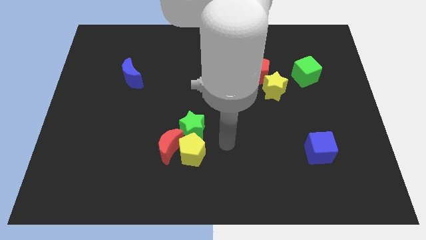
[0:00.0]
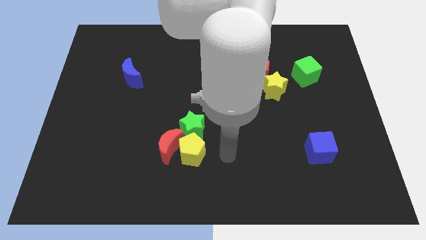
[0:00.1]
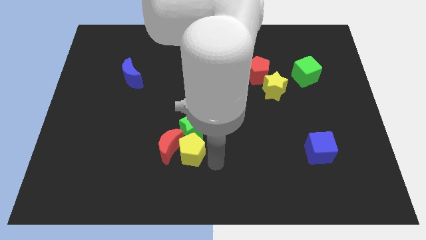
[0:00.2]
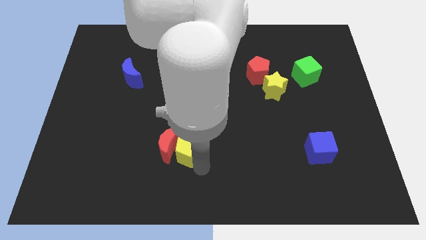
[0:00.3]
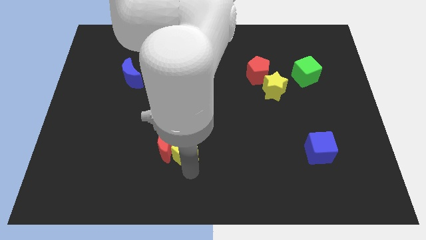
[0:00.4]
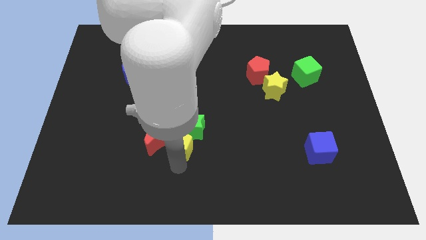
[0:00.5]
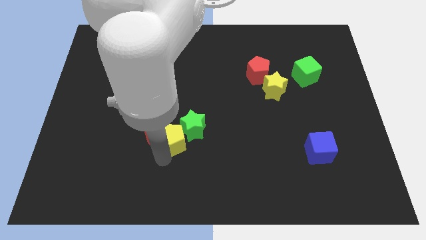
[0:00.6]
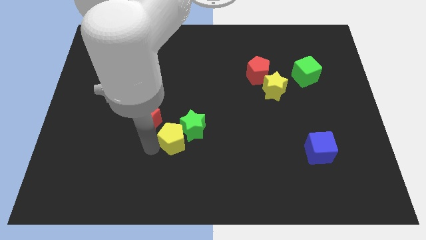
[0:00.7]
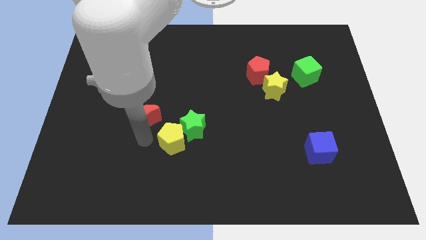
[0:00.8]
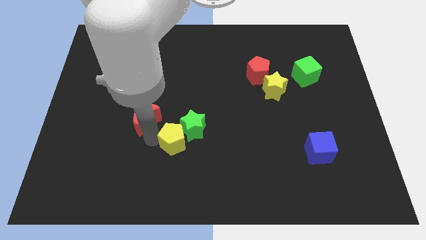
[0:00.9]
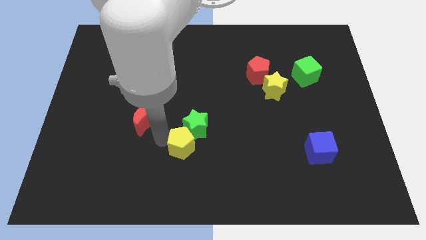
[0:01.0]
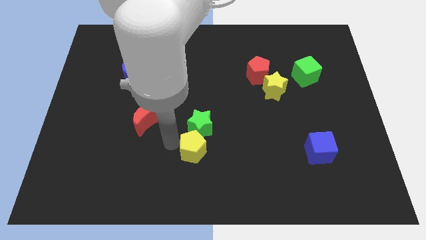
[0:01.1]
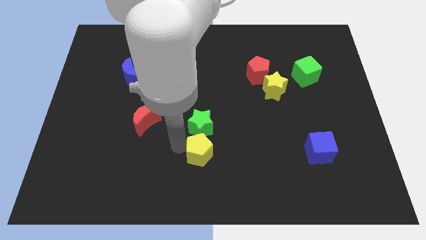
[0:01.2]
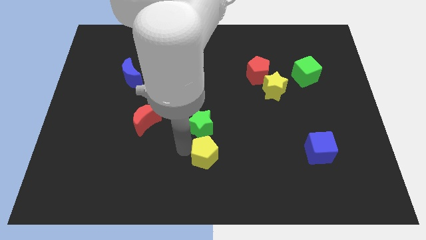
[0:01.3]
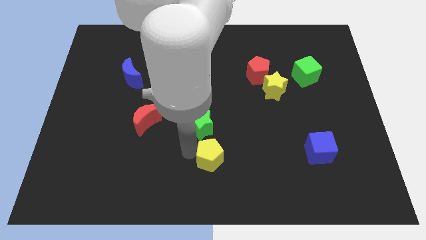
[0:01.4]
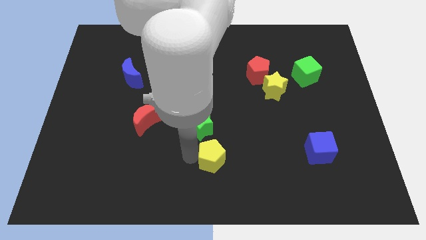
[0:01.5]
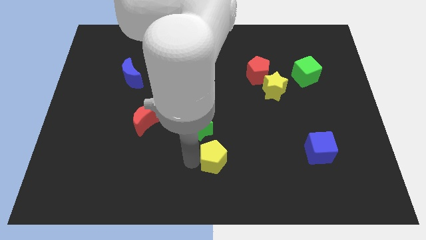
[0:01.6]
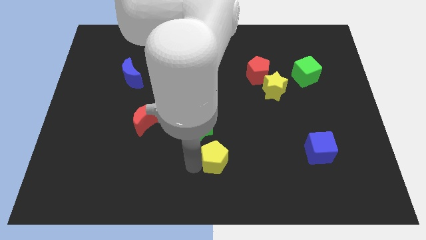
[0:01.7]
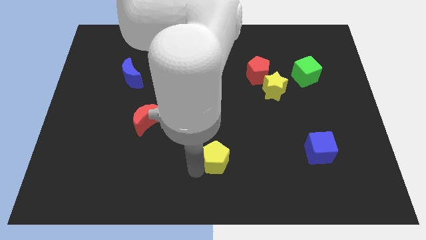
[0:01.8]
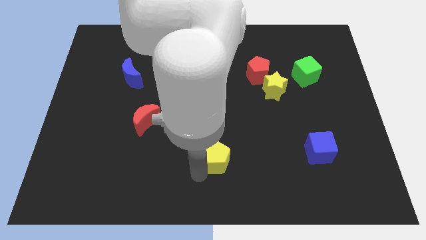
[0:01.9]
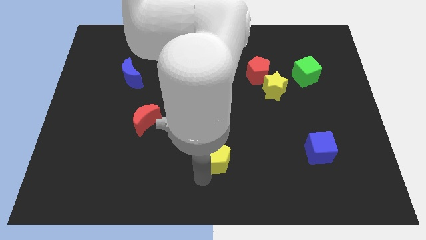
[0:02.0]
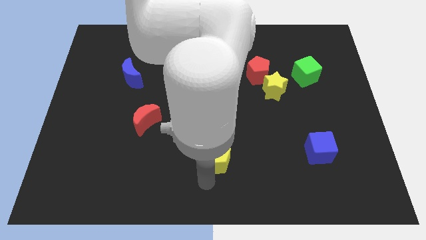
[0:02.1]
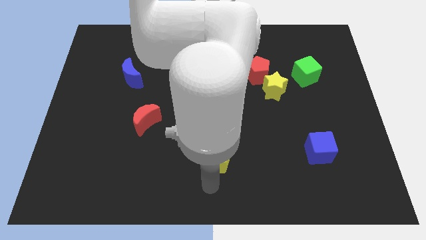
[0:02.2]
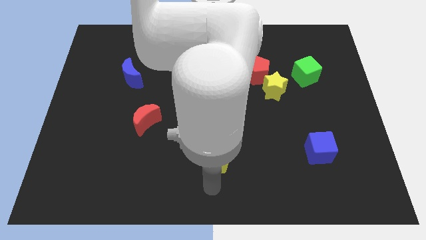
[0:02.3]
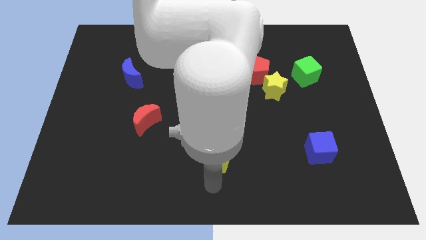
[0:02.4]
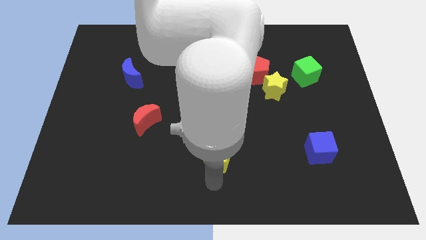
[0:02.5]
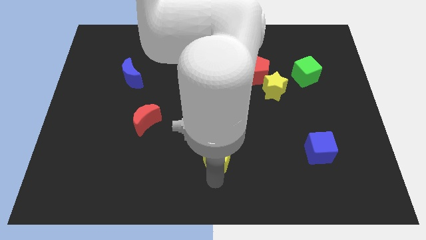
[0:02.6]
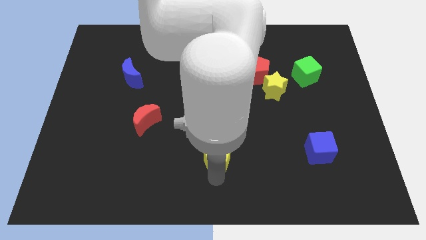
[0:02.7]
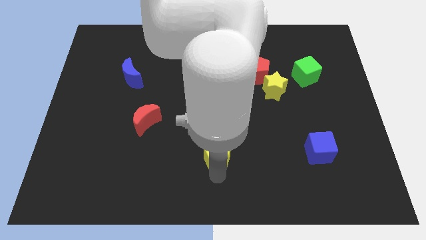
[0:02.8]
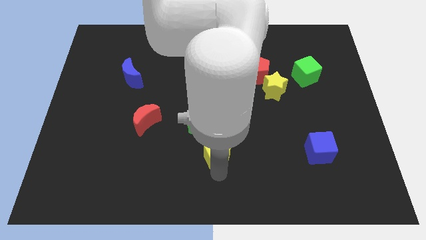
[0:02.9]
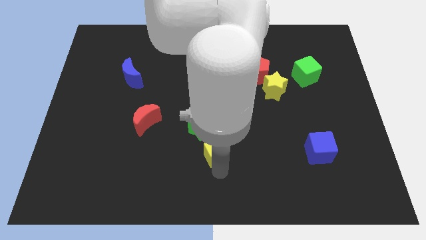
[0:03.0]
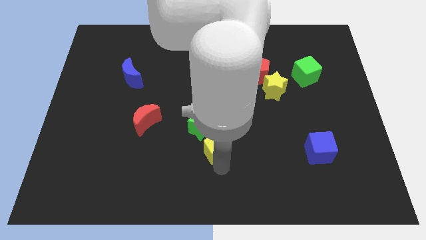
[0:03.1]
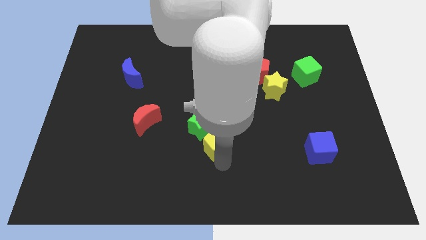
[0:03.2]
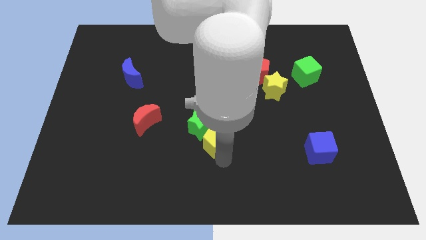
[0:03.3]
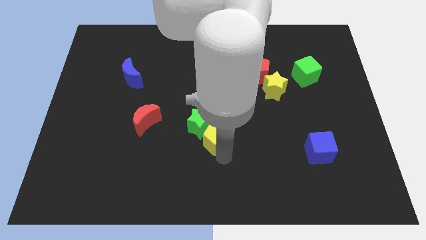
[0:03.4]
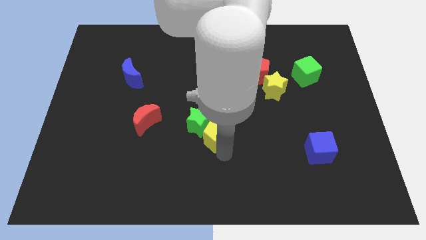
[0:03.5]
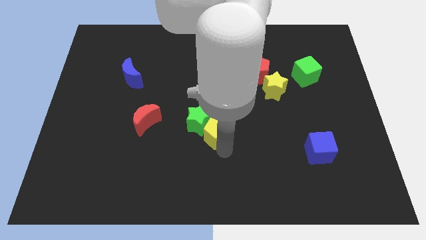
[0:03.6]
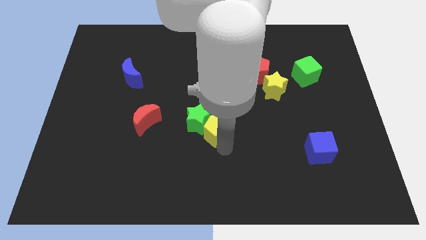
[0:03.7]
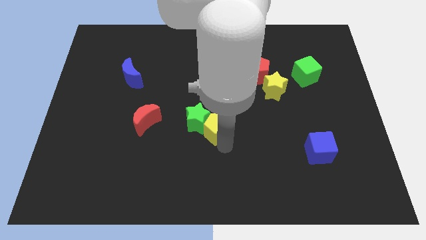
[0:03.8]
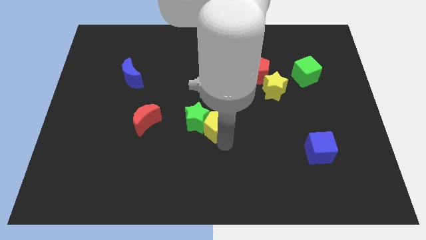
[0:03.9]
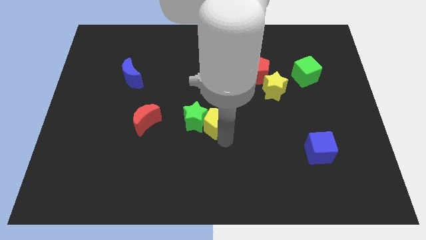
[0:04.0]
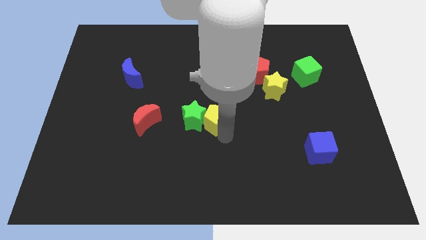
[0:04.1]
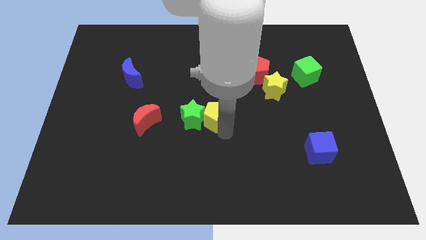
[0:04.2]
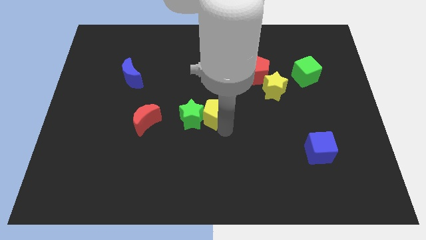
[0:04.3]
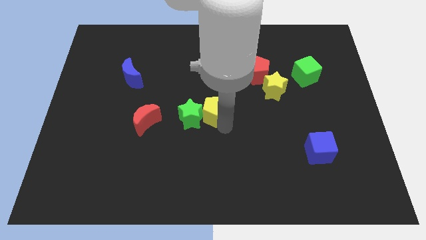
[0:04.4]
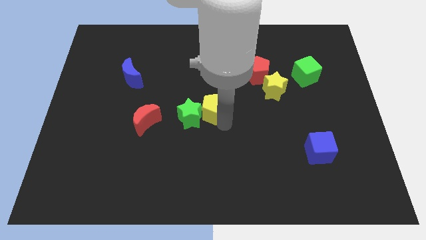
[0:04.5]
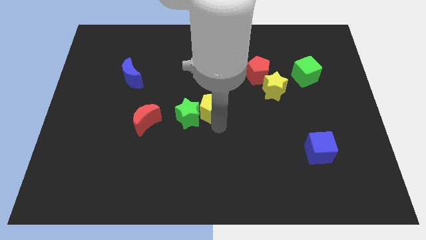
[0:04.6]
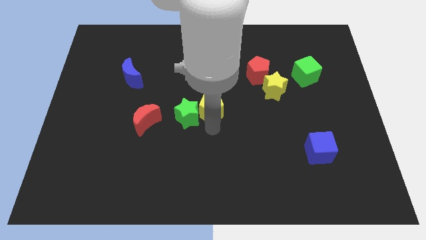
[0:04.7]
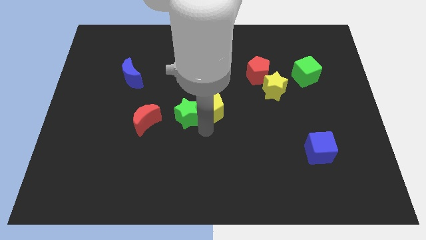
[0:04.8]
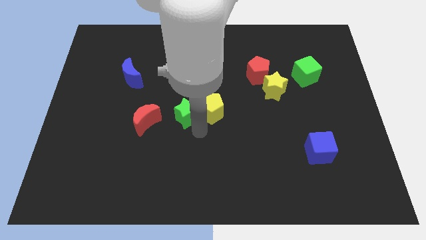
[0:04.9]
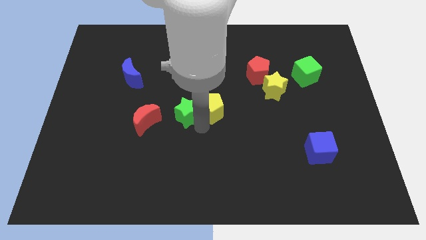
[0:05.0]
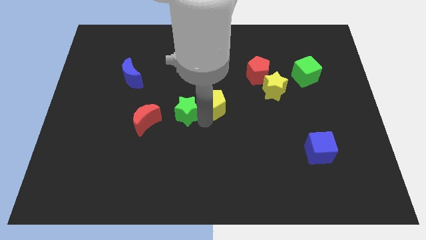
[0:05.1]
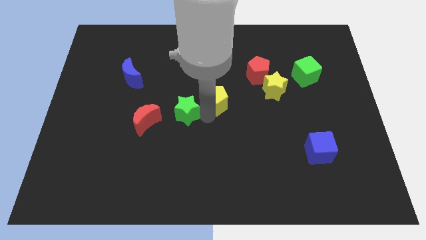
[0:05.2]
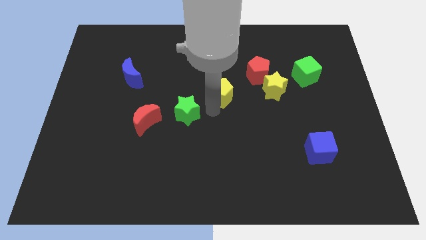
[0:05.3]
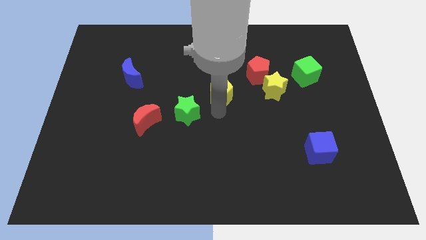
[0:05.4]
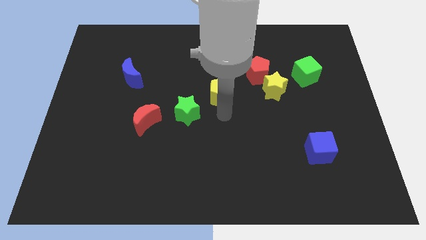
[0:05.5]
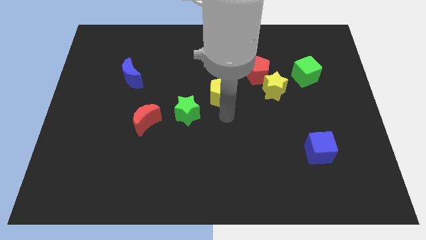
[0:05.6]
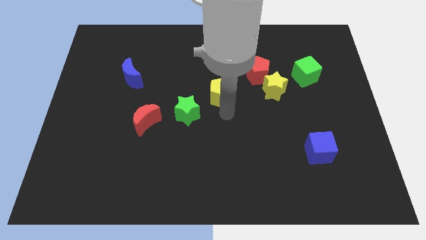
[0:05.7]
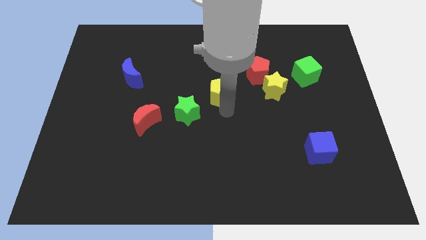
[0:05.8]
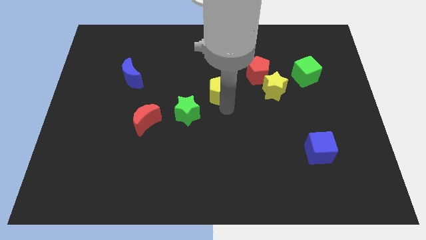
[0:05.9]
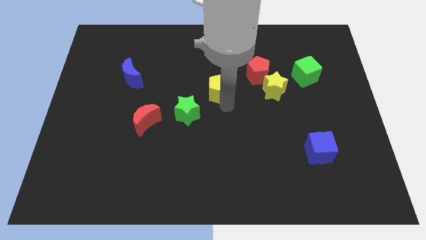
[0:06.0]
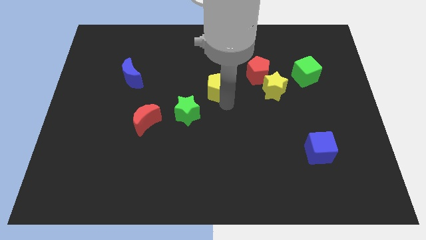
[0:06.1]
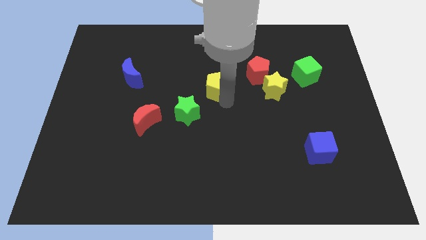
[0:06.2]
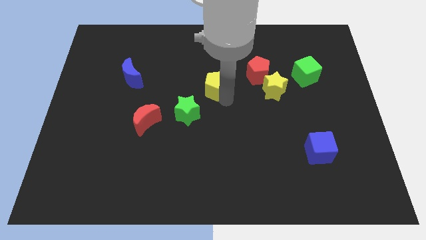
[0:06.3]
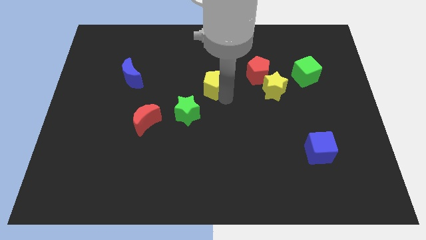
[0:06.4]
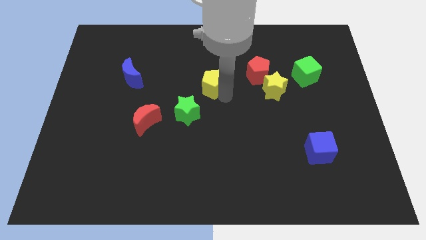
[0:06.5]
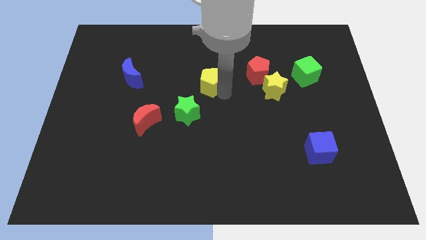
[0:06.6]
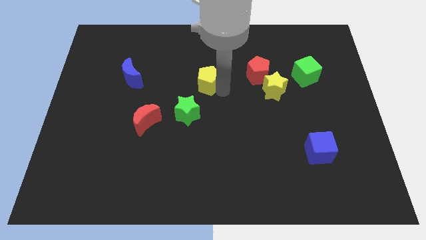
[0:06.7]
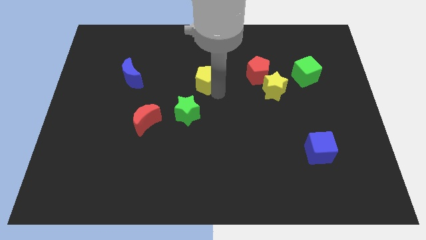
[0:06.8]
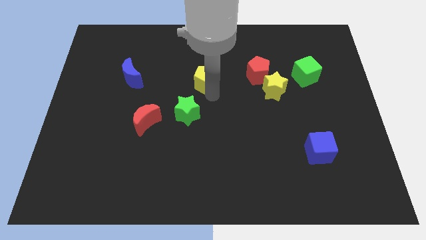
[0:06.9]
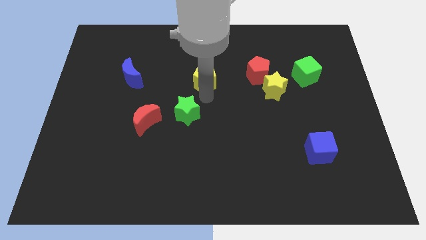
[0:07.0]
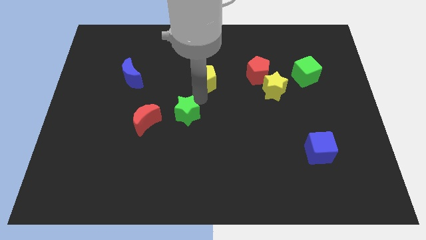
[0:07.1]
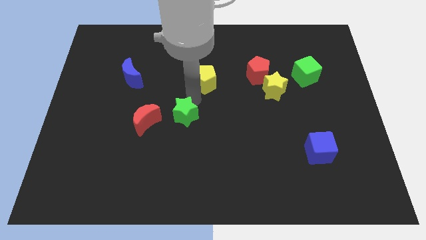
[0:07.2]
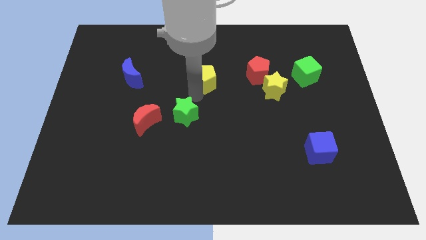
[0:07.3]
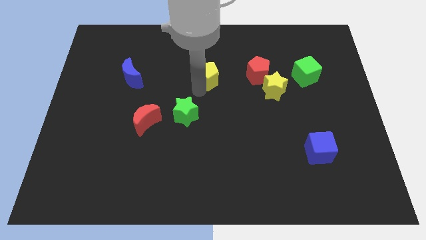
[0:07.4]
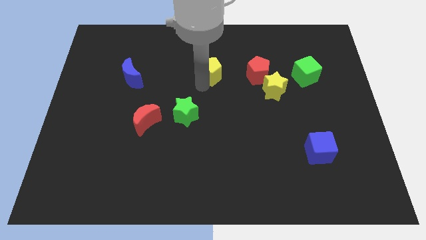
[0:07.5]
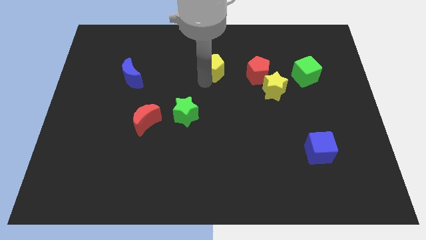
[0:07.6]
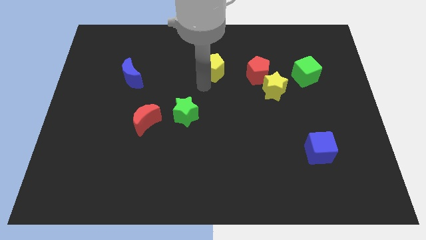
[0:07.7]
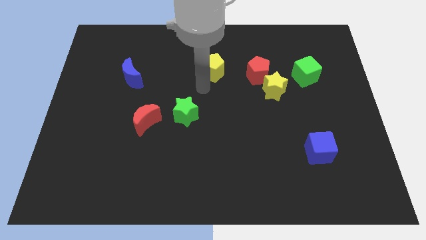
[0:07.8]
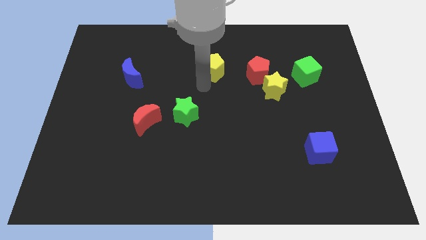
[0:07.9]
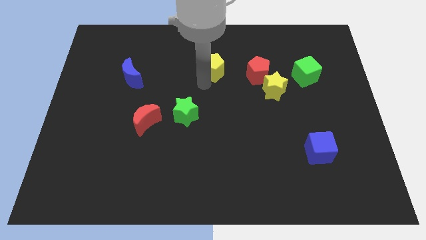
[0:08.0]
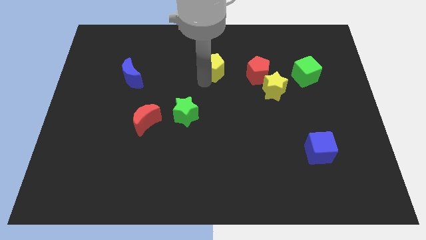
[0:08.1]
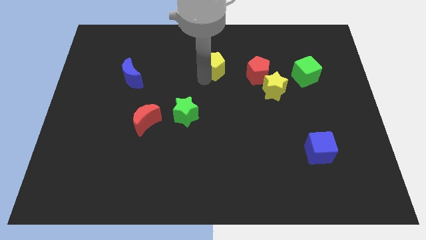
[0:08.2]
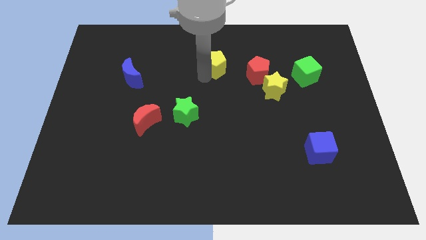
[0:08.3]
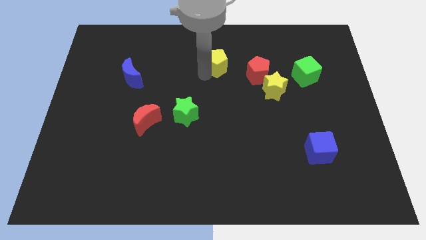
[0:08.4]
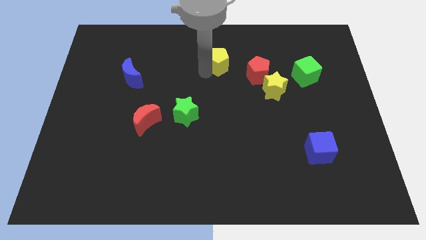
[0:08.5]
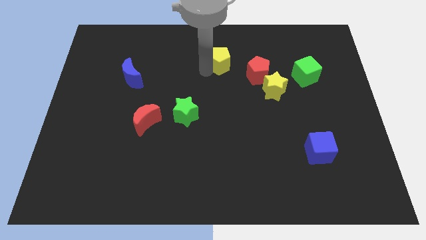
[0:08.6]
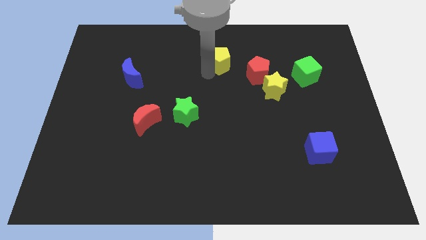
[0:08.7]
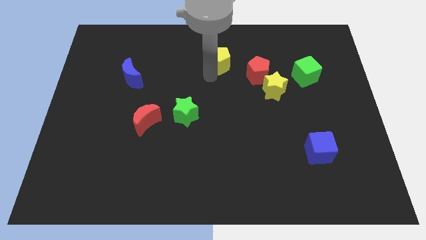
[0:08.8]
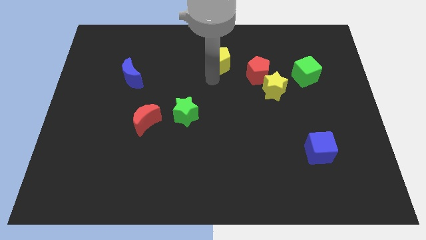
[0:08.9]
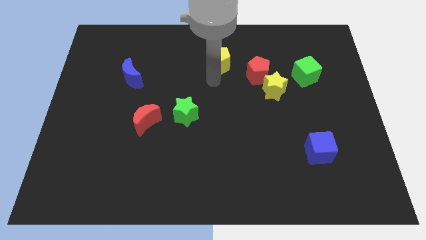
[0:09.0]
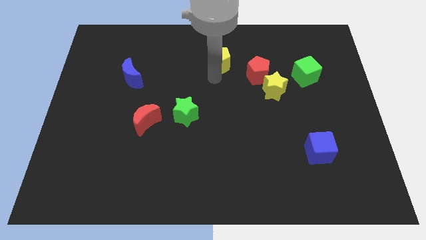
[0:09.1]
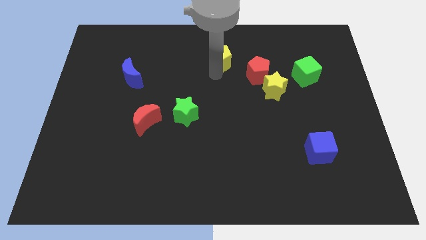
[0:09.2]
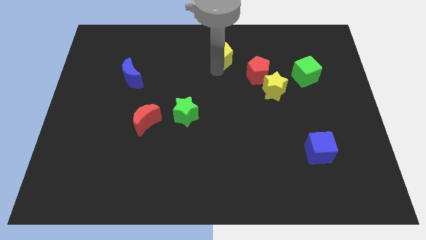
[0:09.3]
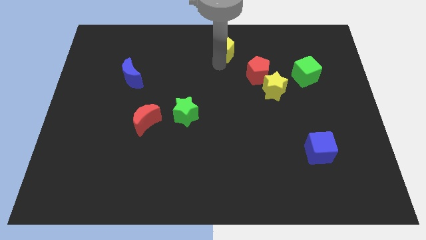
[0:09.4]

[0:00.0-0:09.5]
slide the yellow pentagon to the towards your base
